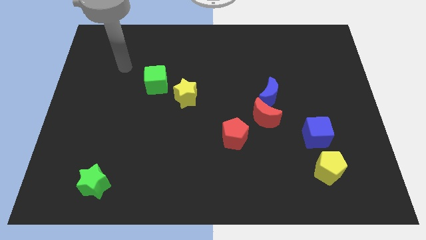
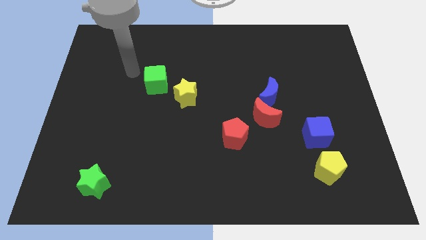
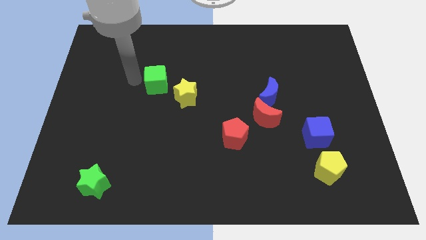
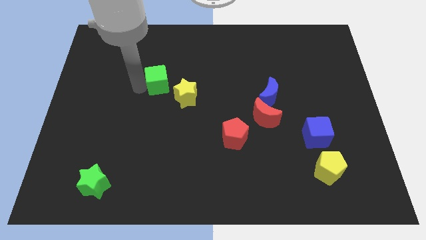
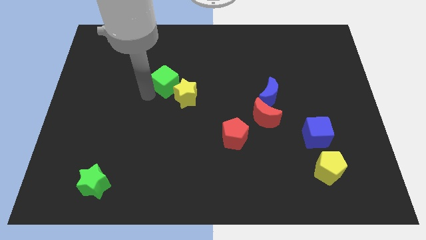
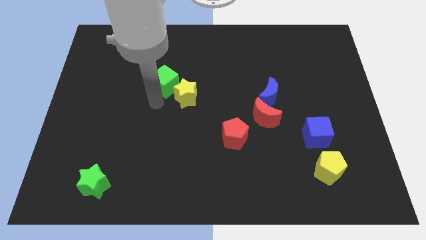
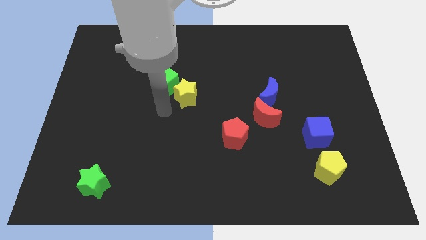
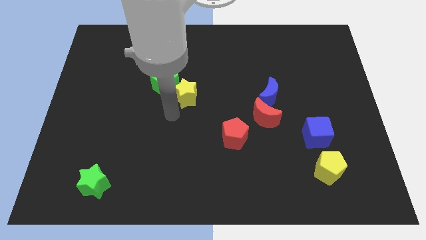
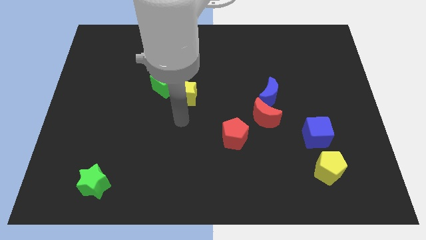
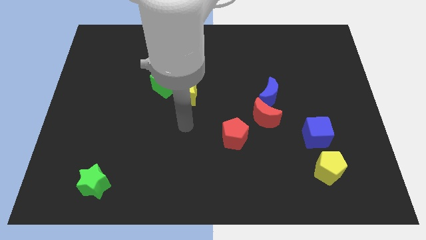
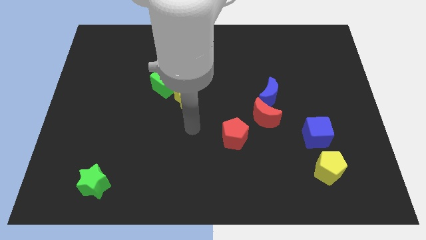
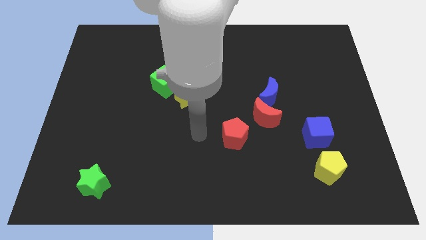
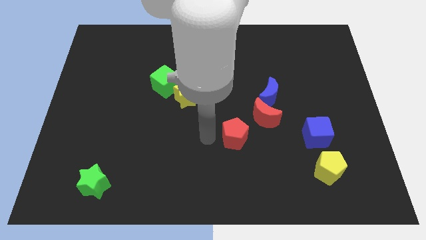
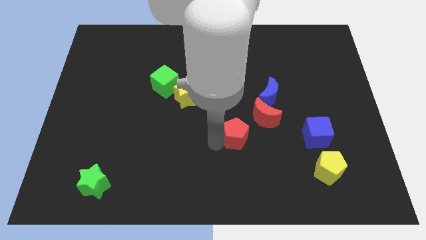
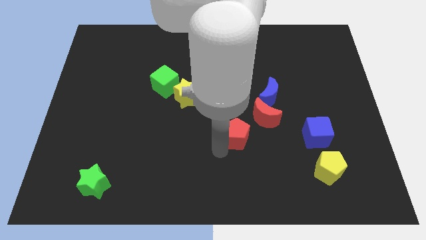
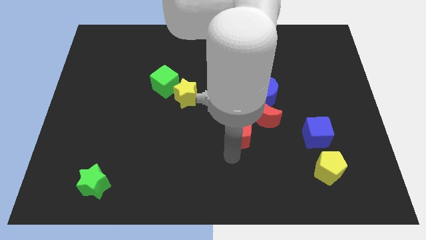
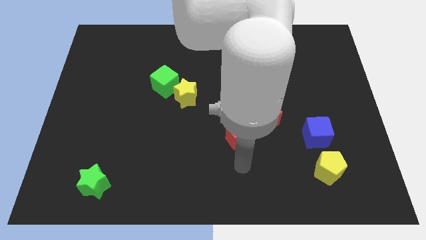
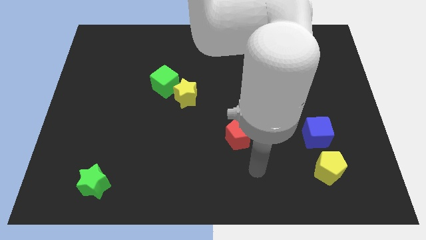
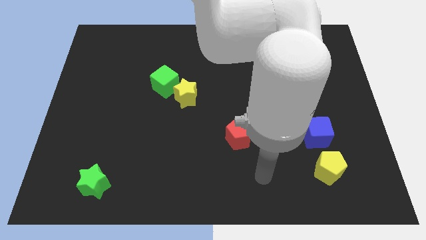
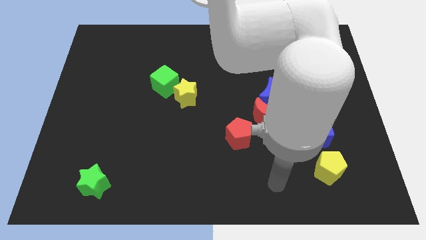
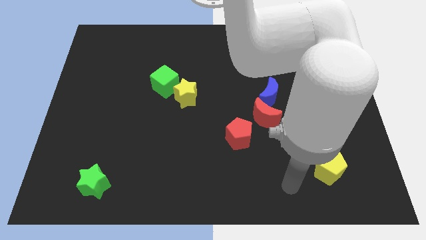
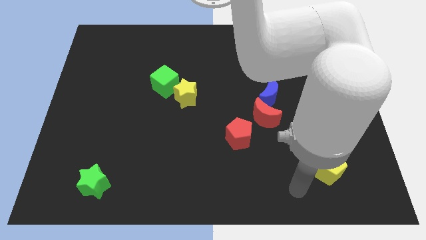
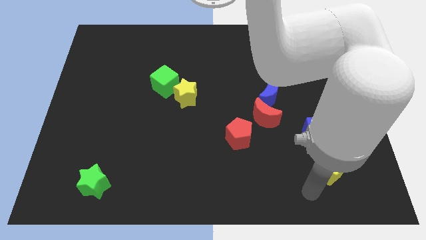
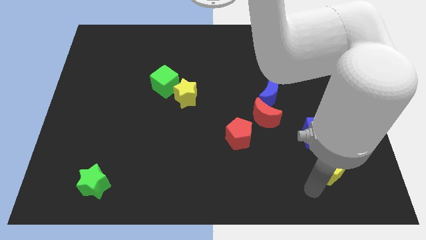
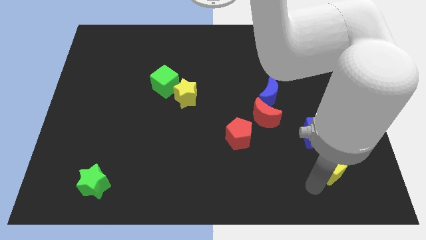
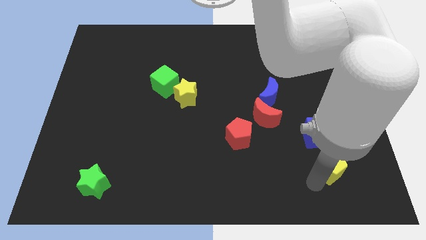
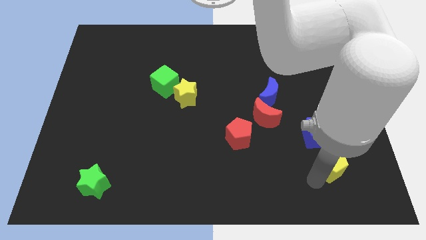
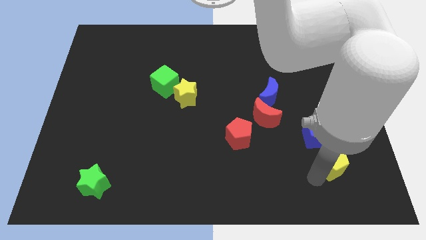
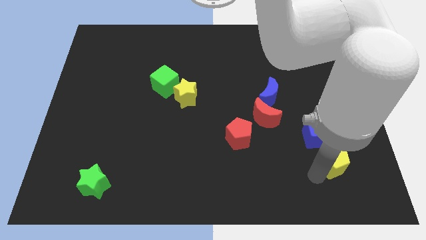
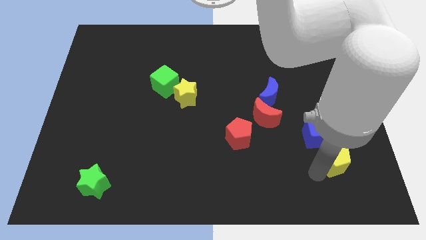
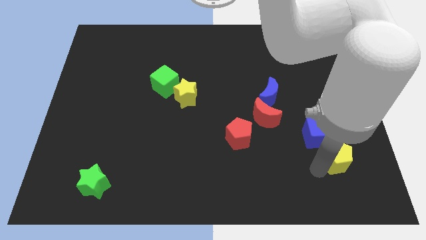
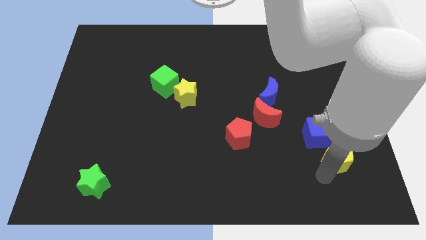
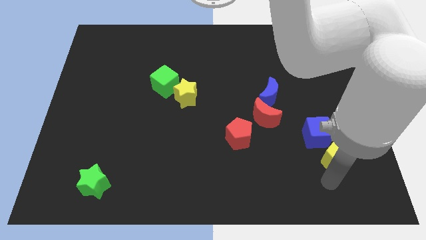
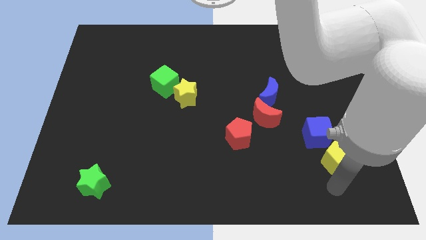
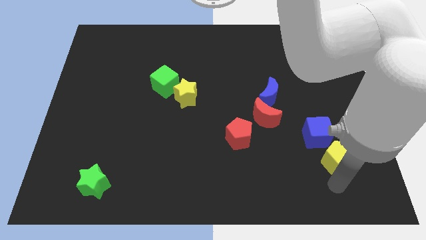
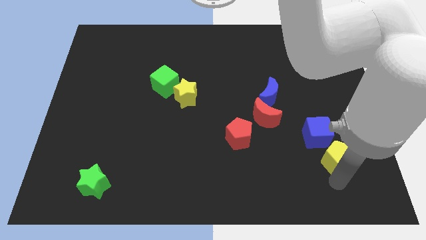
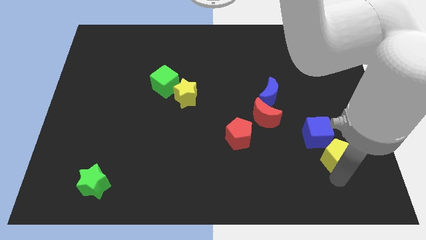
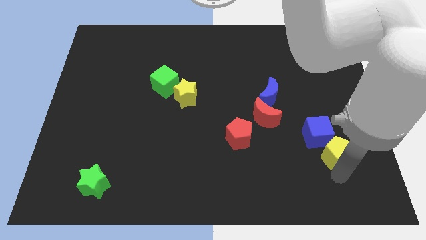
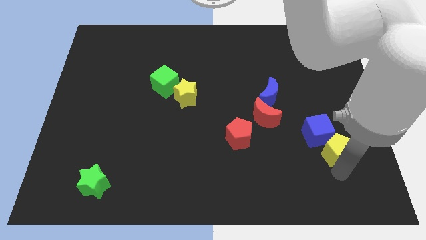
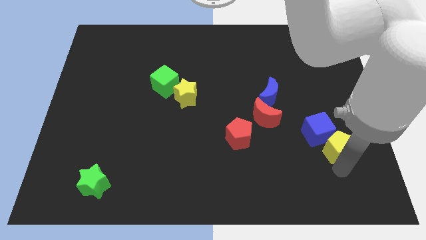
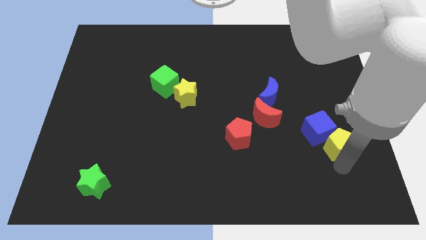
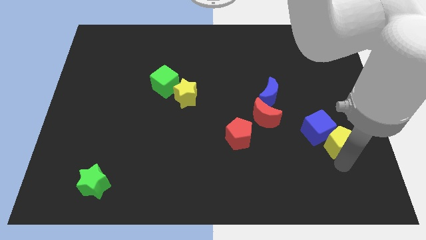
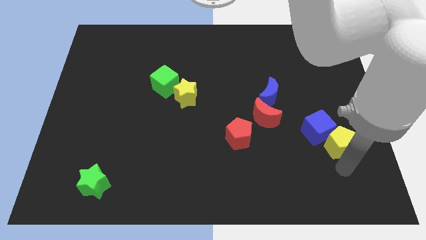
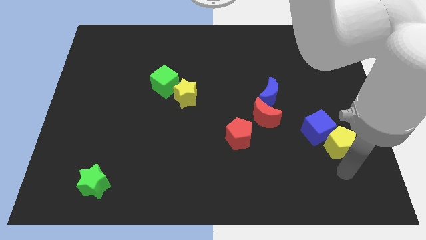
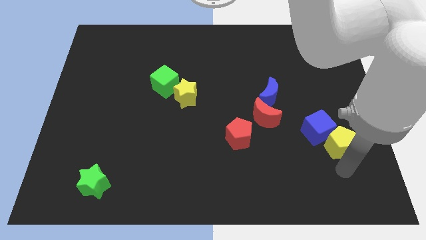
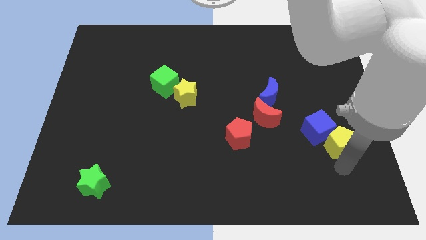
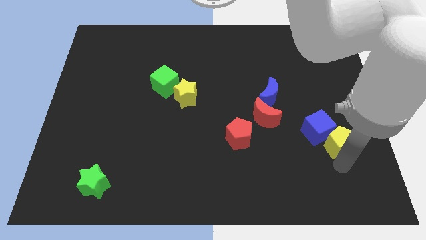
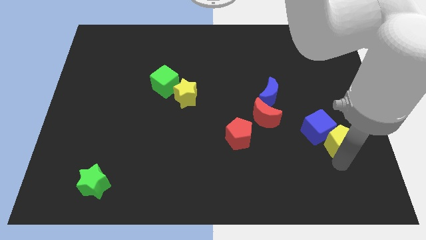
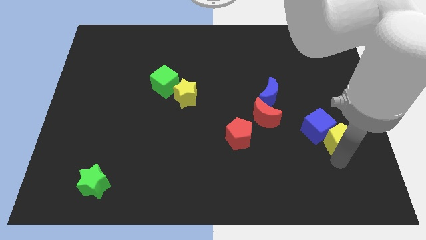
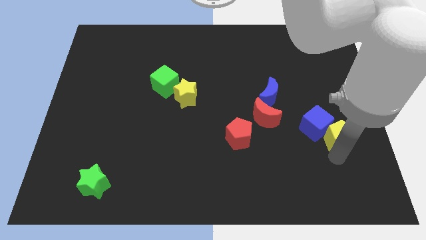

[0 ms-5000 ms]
slide the yellow pentagon up a little

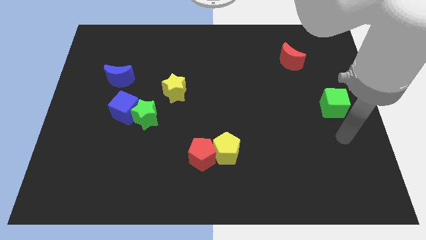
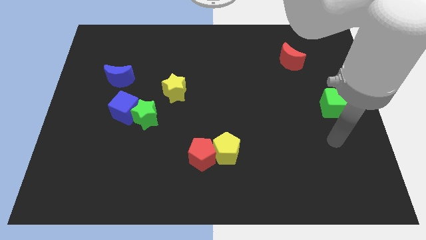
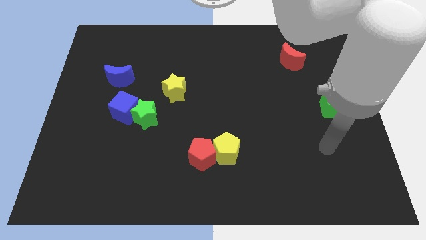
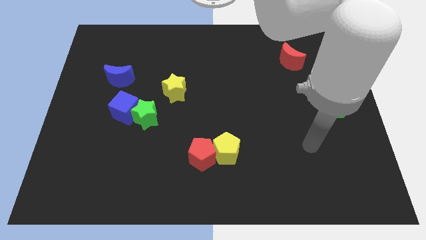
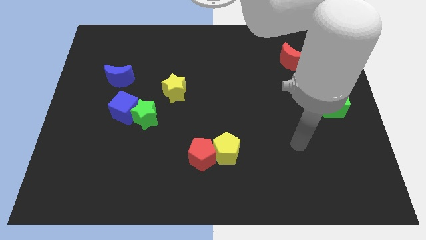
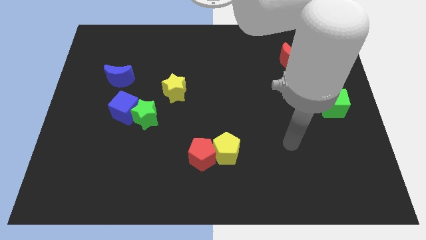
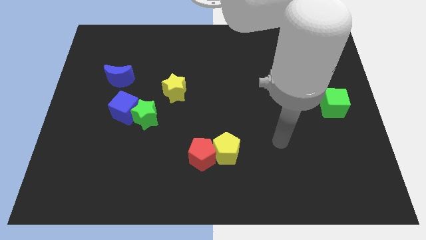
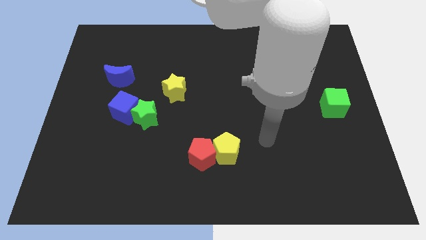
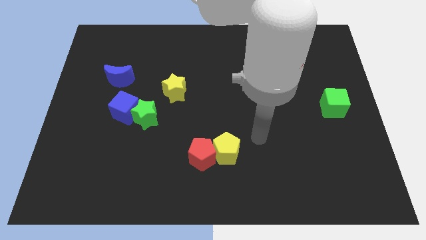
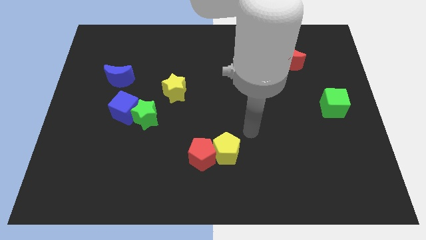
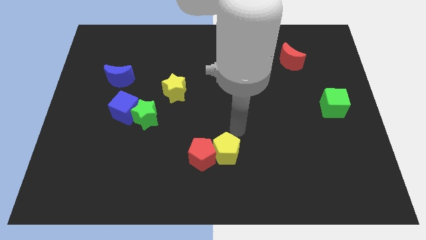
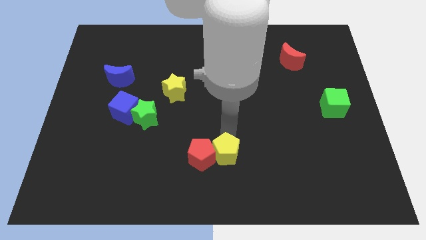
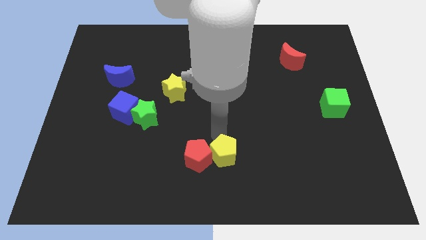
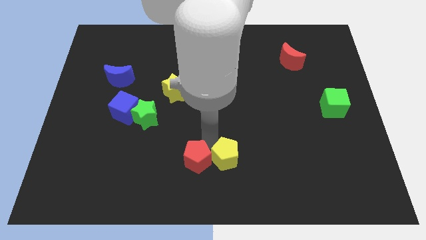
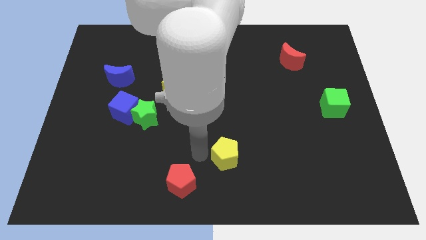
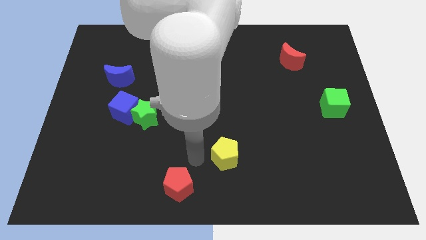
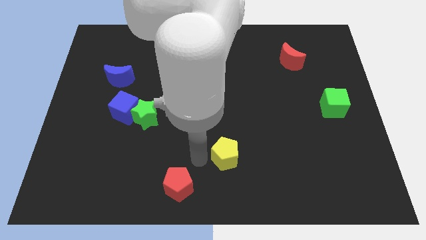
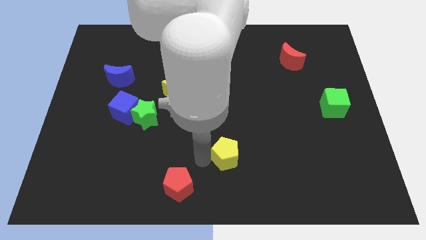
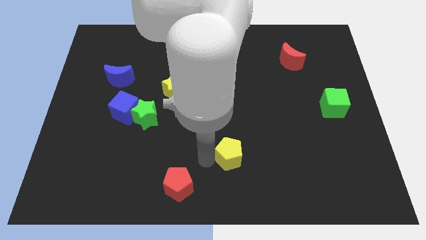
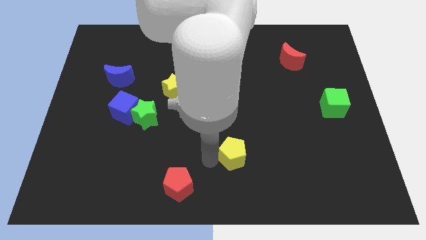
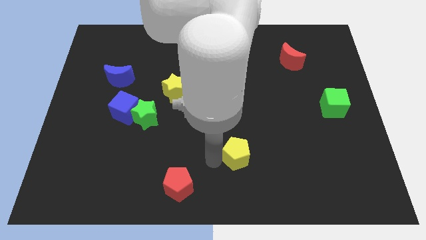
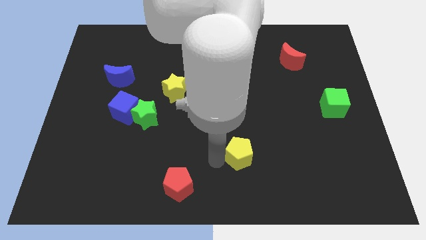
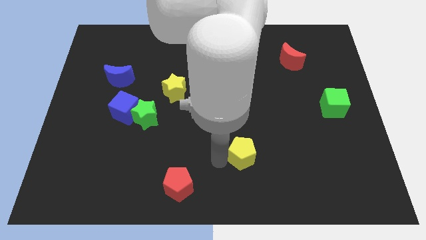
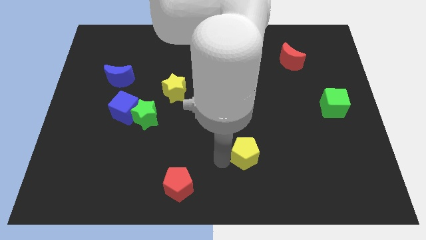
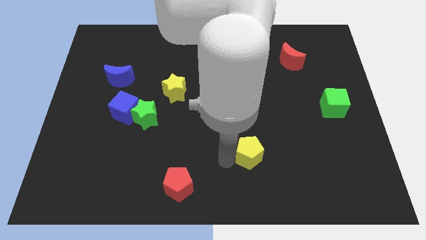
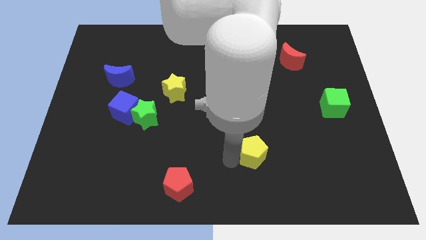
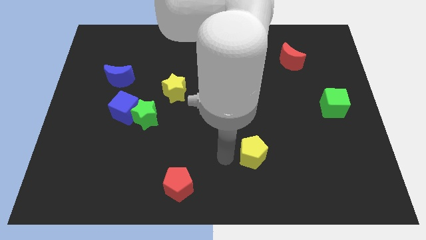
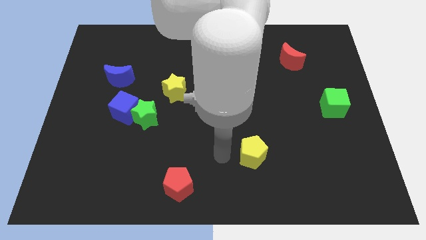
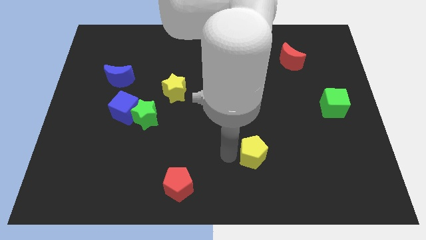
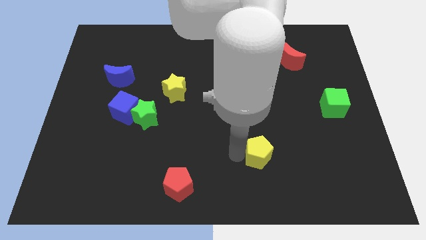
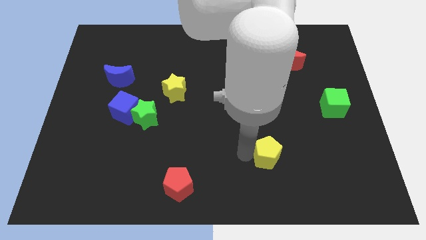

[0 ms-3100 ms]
slide the yellow pentagon somewhat right
